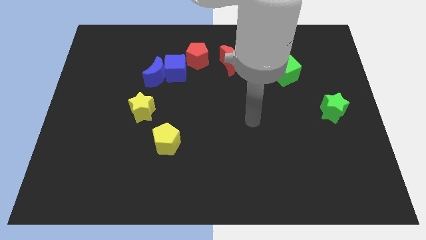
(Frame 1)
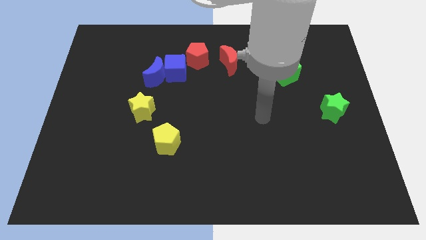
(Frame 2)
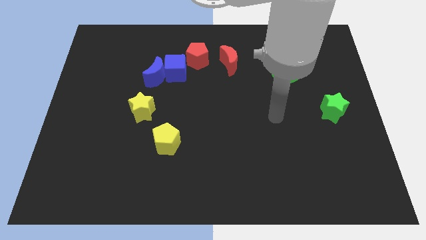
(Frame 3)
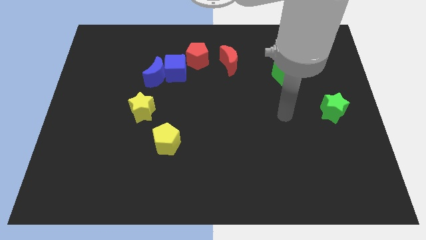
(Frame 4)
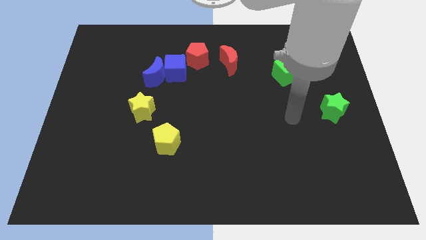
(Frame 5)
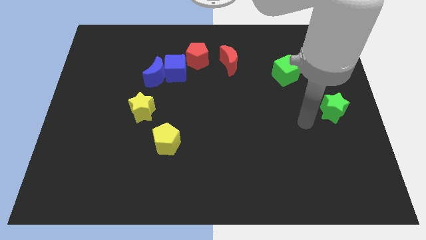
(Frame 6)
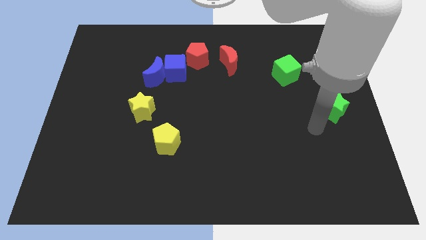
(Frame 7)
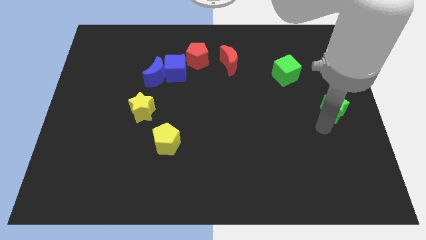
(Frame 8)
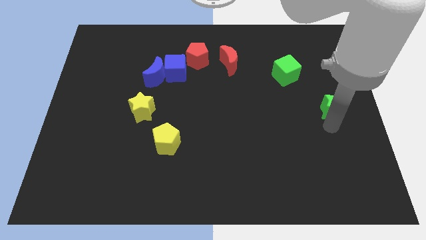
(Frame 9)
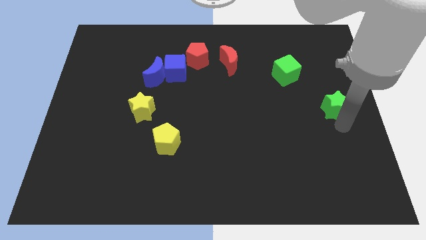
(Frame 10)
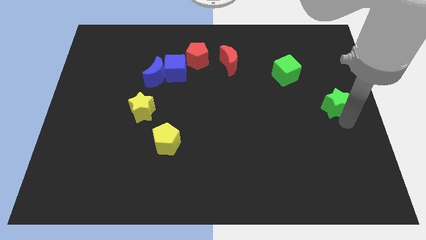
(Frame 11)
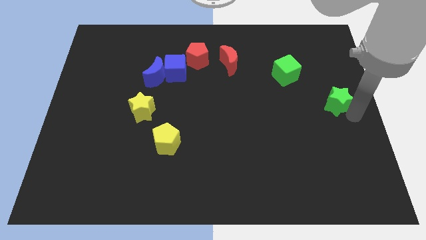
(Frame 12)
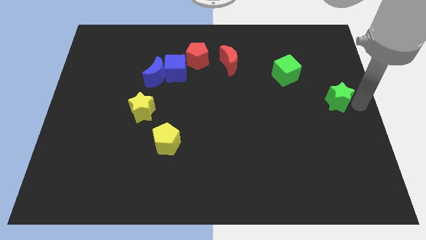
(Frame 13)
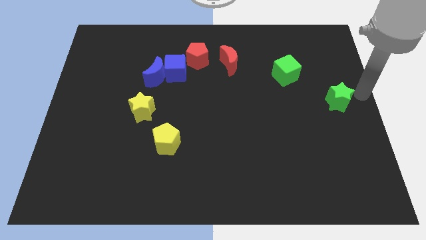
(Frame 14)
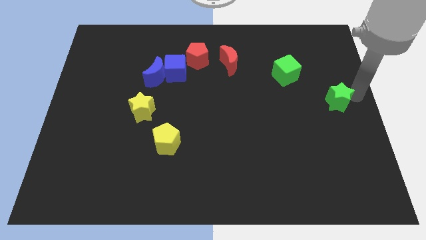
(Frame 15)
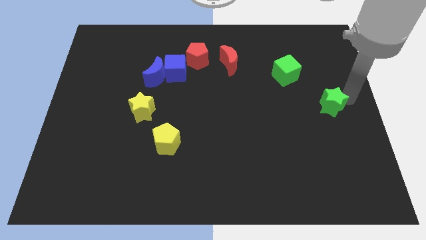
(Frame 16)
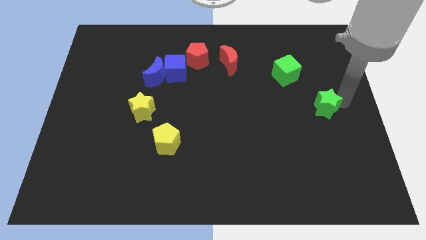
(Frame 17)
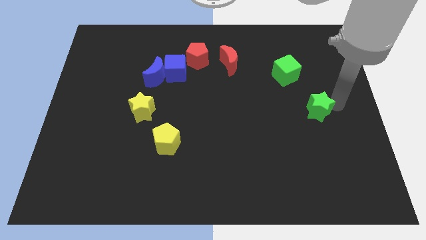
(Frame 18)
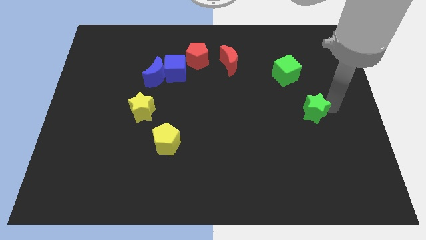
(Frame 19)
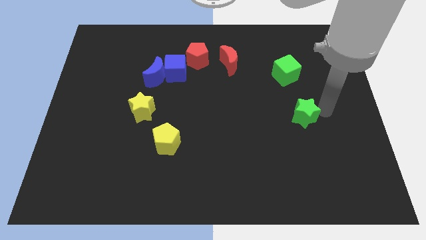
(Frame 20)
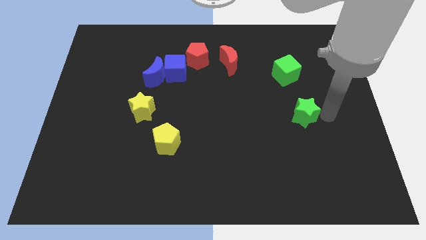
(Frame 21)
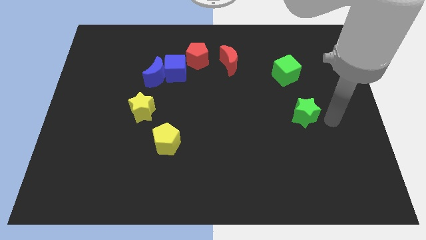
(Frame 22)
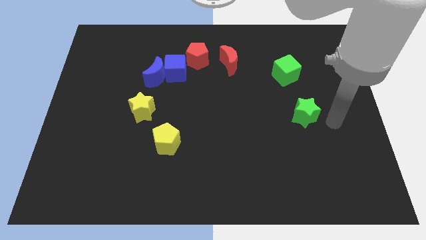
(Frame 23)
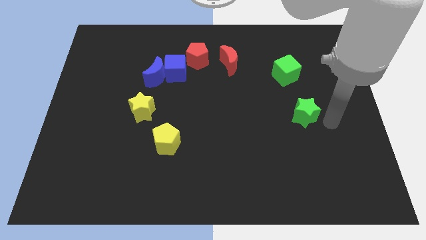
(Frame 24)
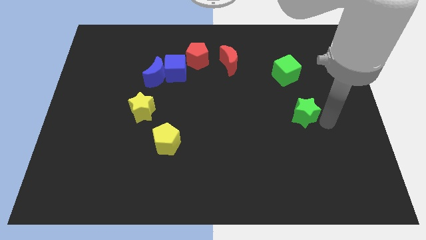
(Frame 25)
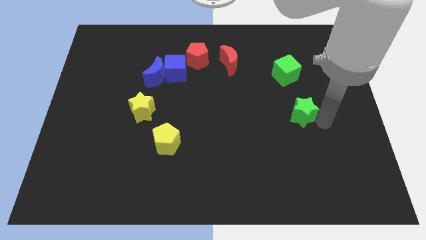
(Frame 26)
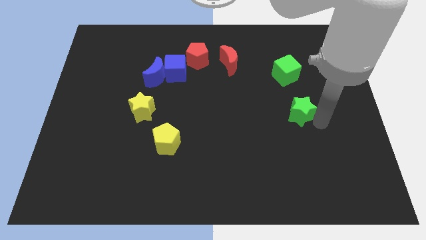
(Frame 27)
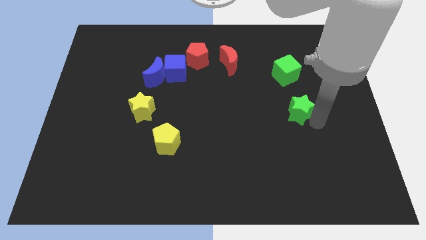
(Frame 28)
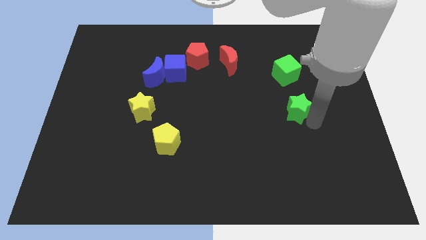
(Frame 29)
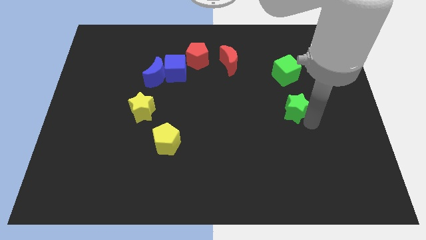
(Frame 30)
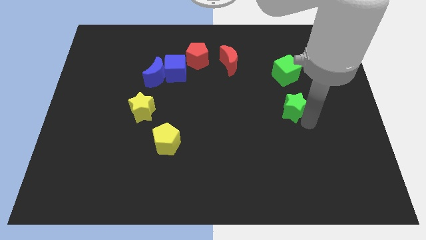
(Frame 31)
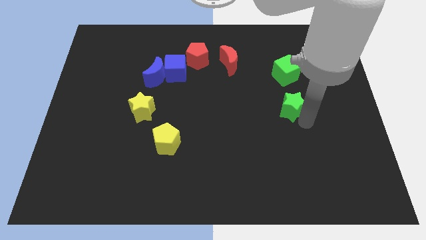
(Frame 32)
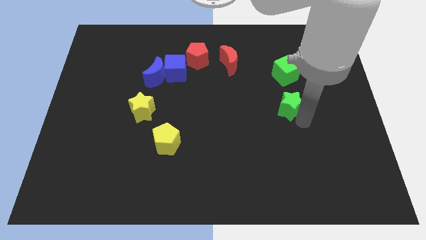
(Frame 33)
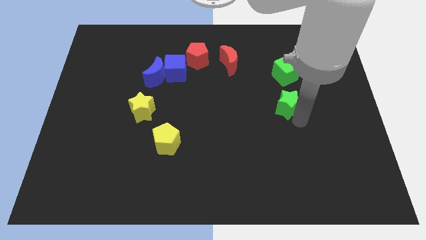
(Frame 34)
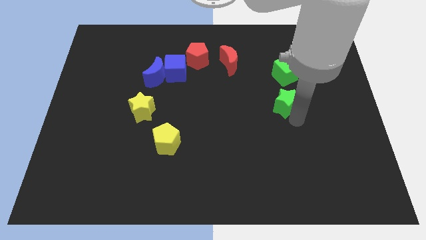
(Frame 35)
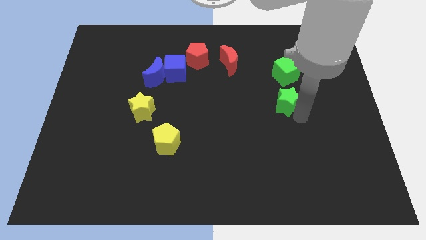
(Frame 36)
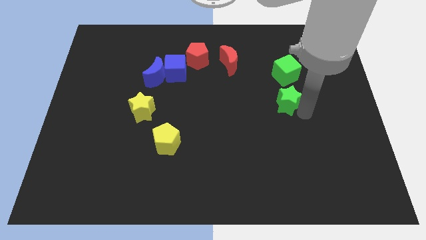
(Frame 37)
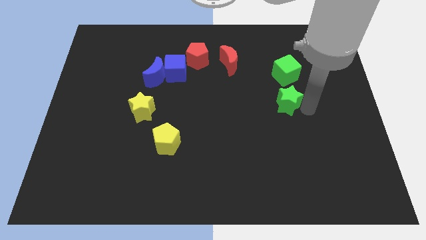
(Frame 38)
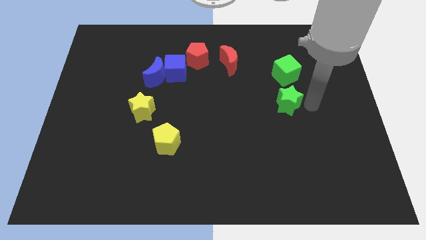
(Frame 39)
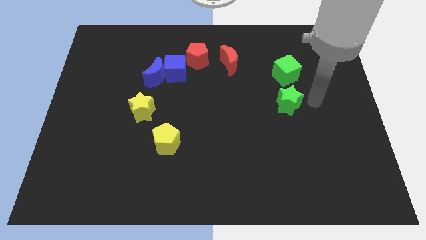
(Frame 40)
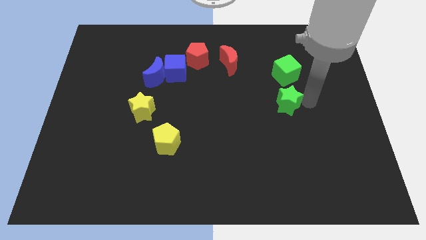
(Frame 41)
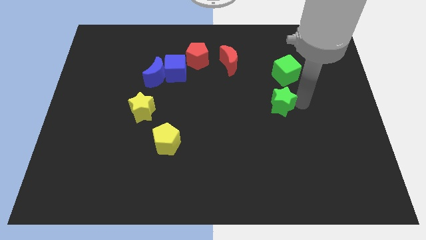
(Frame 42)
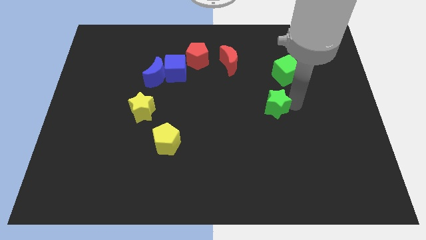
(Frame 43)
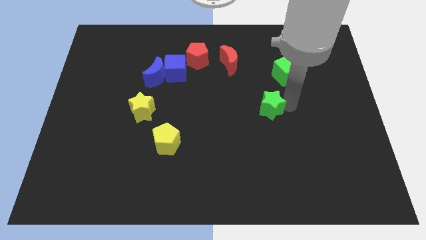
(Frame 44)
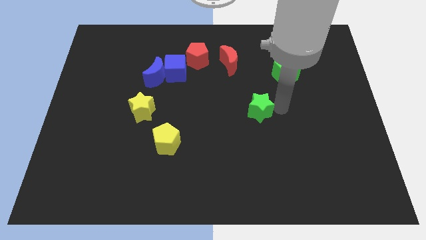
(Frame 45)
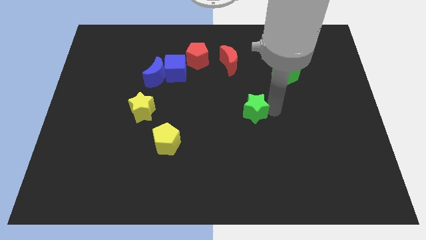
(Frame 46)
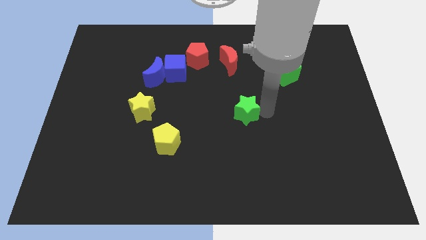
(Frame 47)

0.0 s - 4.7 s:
slide the green star to the left

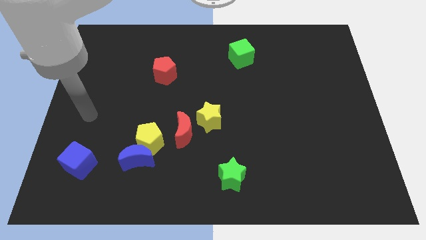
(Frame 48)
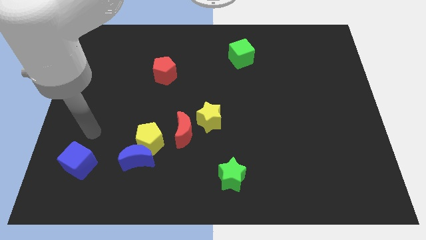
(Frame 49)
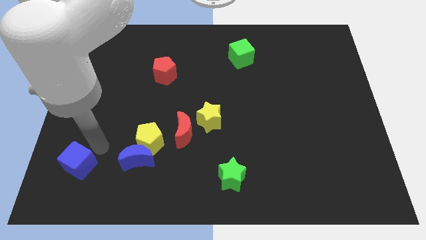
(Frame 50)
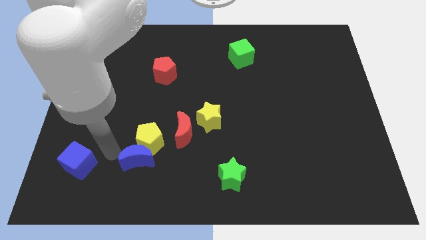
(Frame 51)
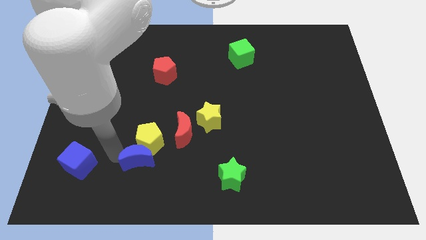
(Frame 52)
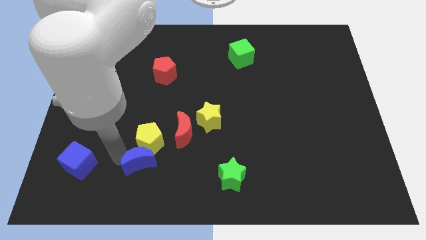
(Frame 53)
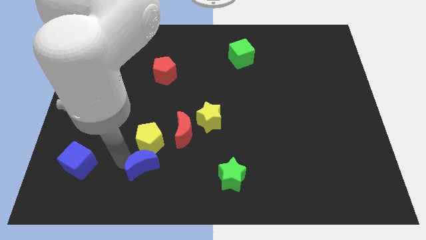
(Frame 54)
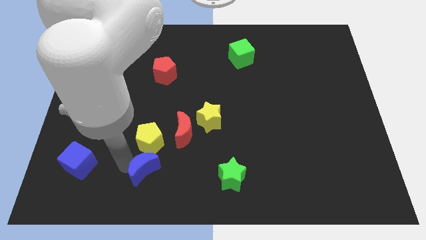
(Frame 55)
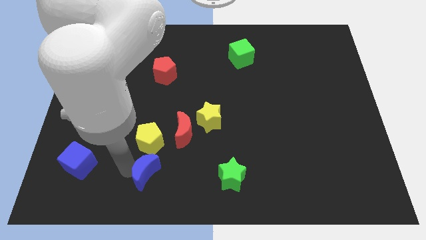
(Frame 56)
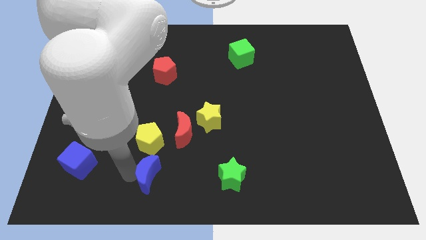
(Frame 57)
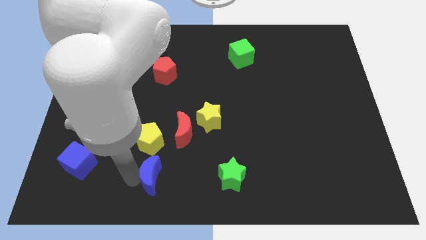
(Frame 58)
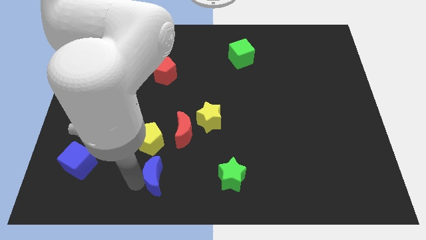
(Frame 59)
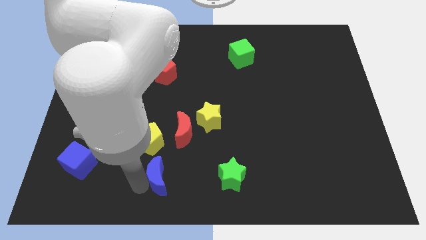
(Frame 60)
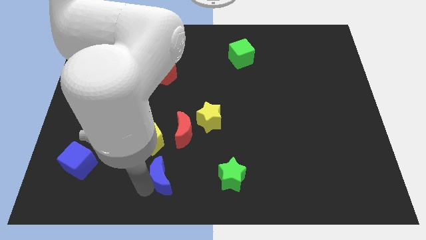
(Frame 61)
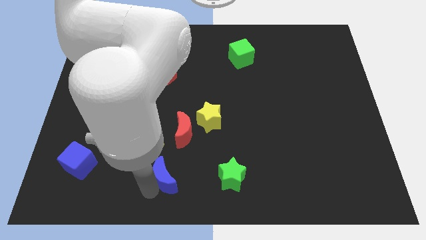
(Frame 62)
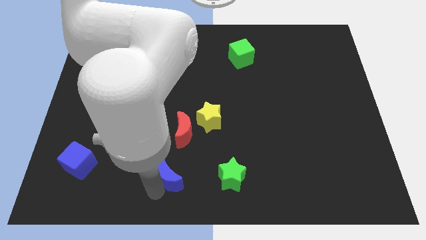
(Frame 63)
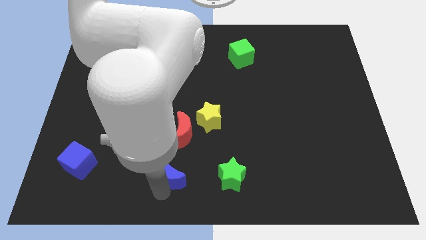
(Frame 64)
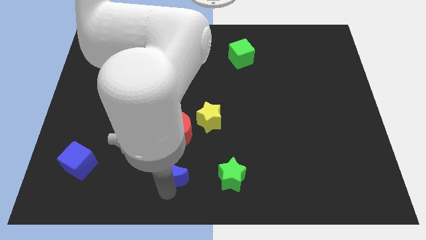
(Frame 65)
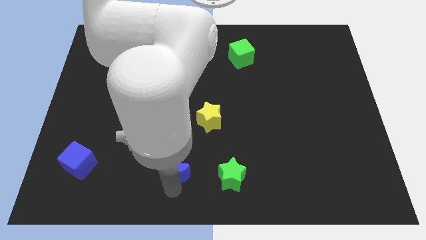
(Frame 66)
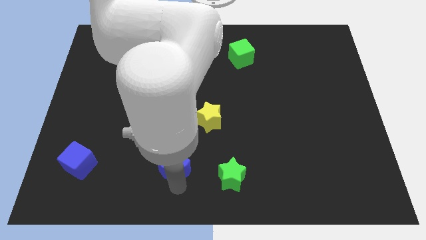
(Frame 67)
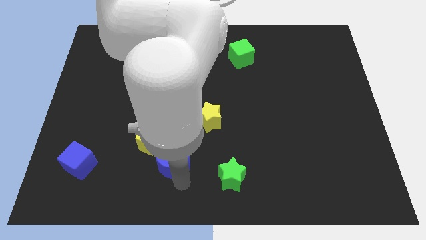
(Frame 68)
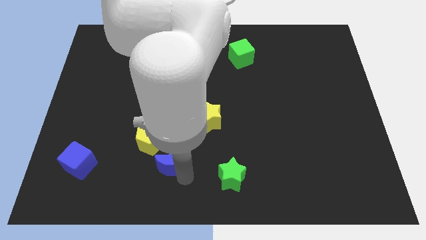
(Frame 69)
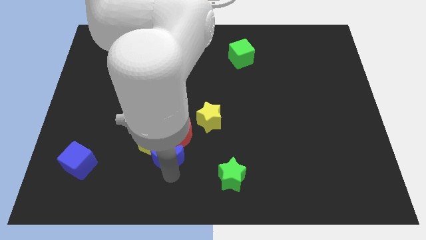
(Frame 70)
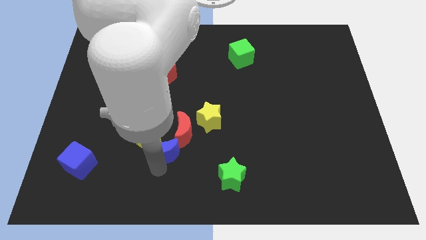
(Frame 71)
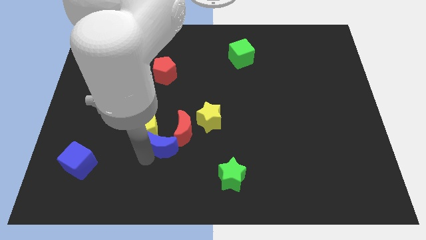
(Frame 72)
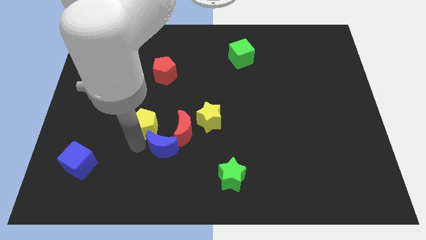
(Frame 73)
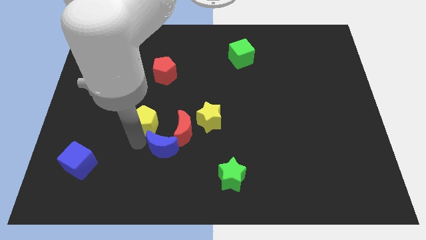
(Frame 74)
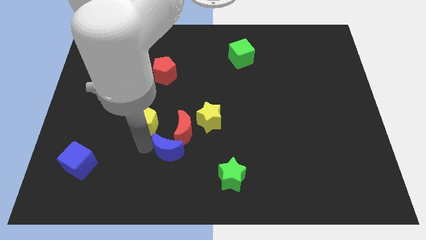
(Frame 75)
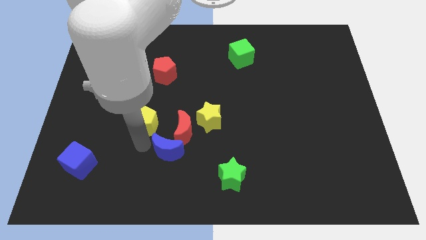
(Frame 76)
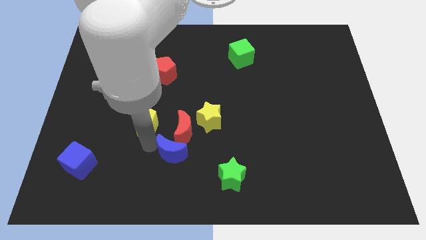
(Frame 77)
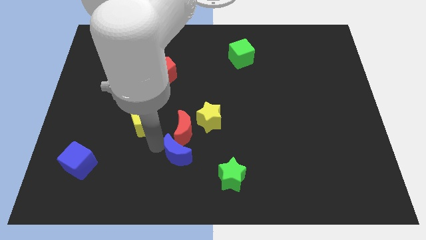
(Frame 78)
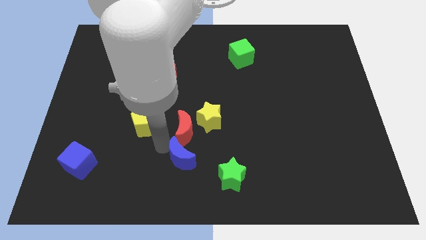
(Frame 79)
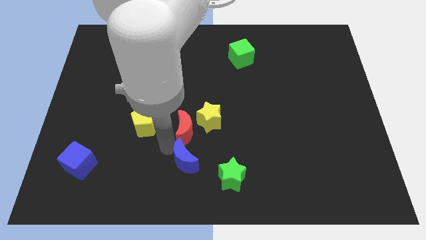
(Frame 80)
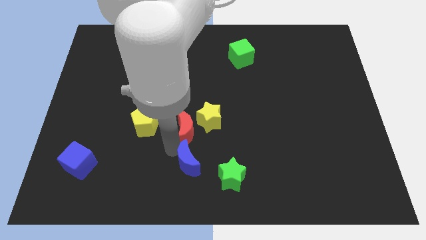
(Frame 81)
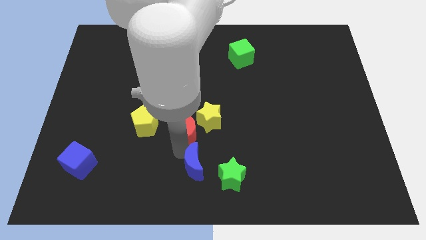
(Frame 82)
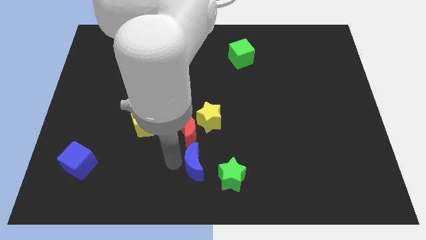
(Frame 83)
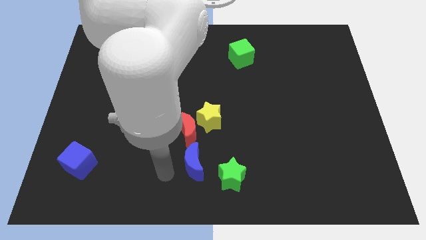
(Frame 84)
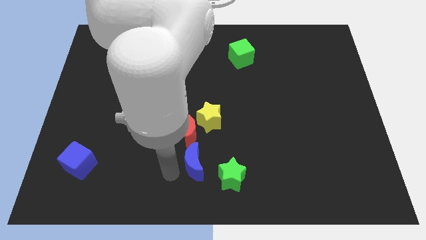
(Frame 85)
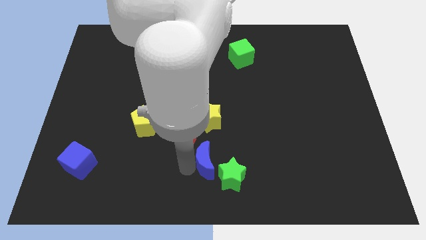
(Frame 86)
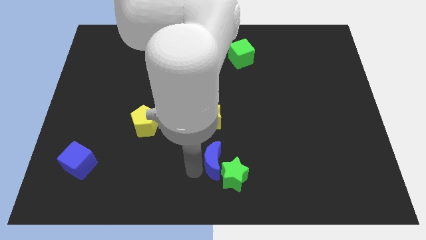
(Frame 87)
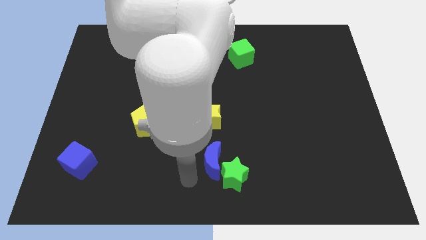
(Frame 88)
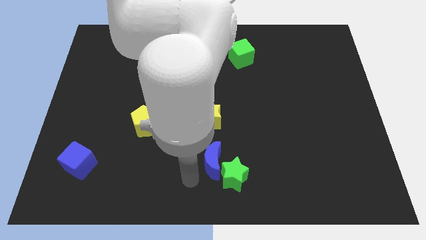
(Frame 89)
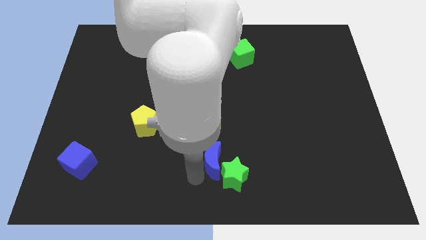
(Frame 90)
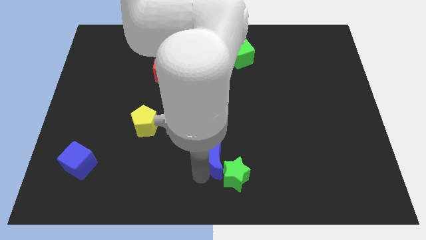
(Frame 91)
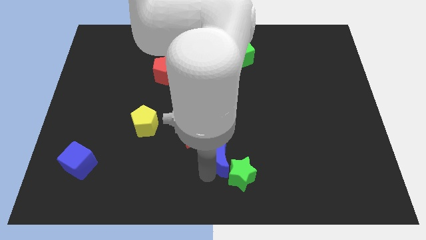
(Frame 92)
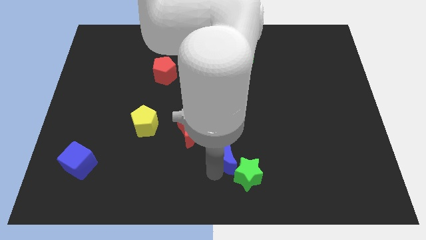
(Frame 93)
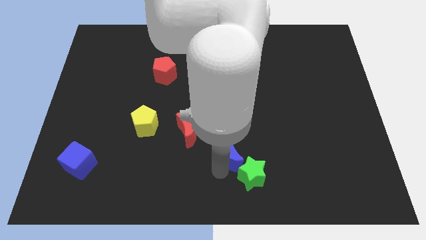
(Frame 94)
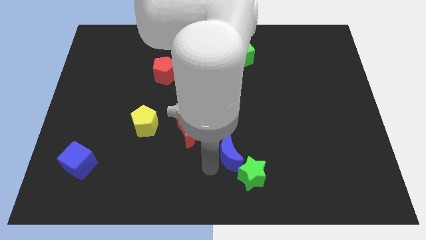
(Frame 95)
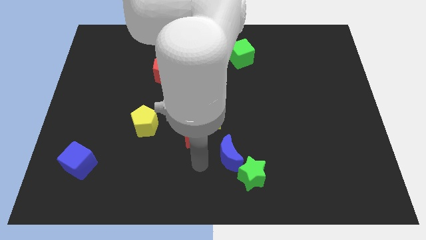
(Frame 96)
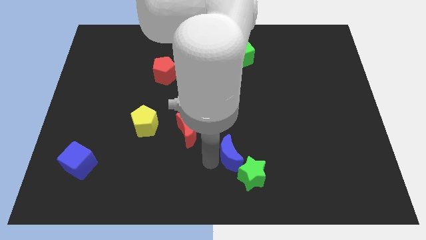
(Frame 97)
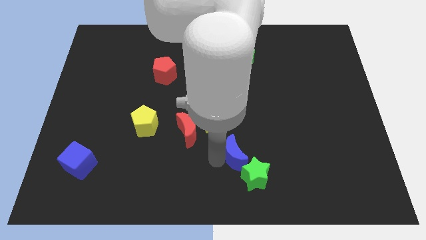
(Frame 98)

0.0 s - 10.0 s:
slide the blue moon to the right
